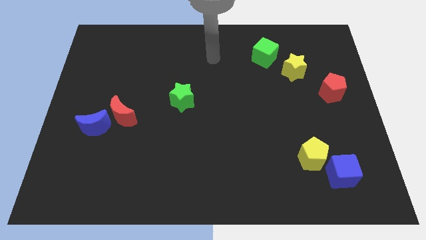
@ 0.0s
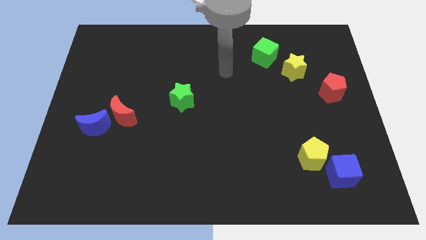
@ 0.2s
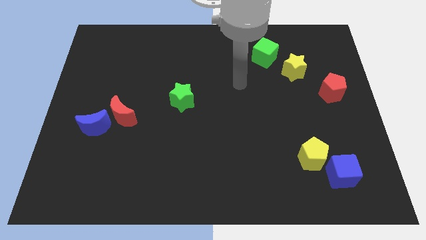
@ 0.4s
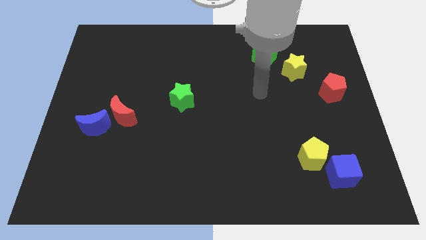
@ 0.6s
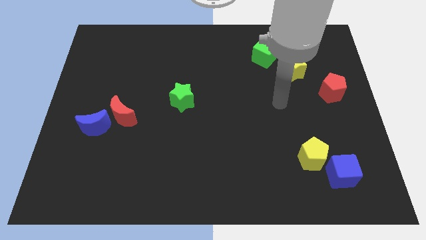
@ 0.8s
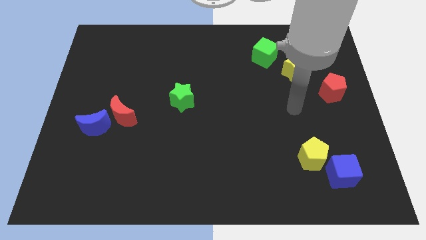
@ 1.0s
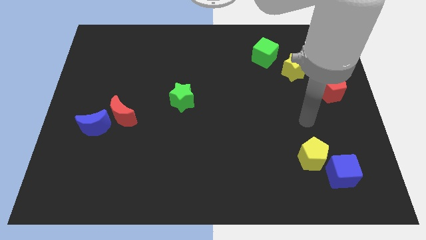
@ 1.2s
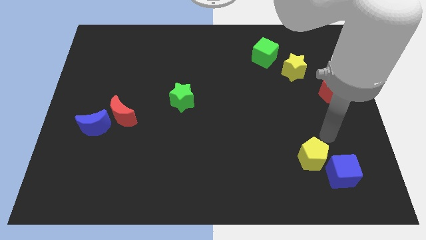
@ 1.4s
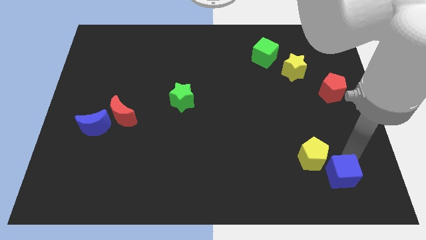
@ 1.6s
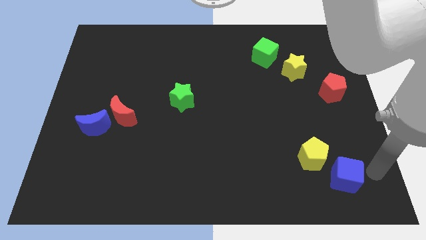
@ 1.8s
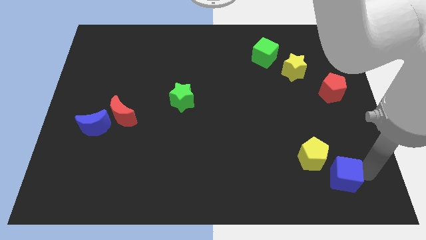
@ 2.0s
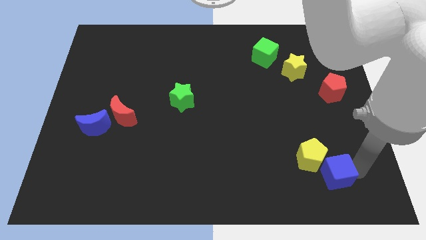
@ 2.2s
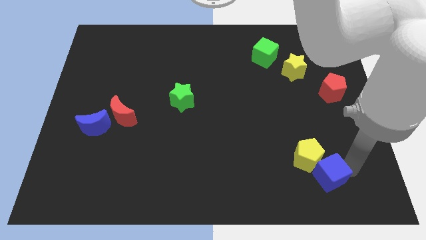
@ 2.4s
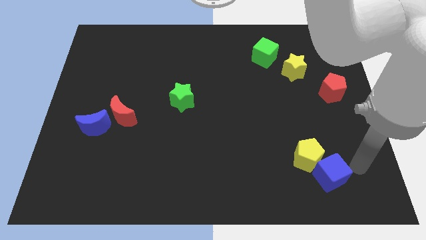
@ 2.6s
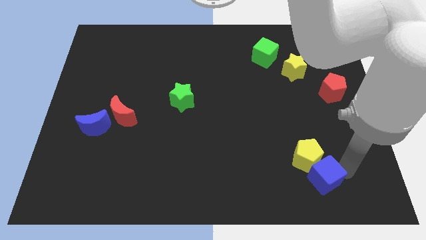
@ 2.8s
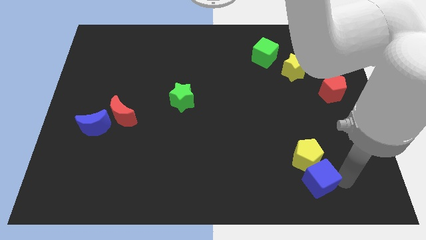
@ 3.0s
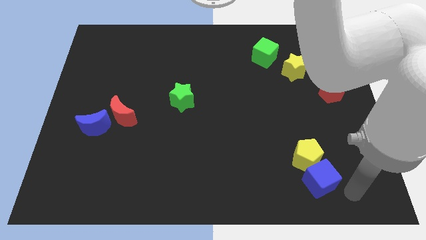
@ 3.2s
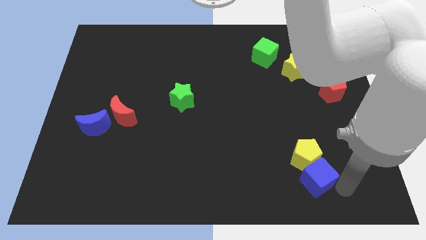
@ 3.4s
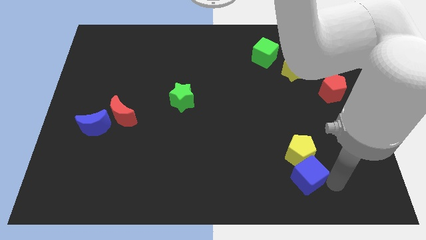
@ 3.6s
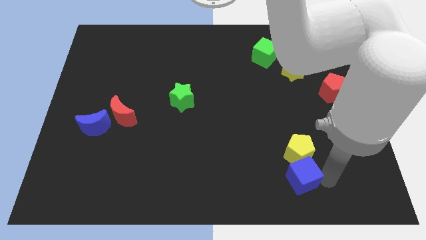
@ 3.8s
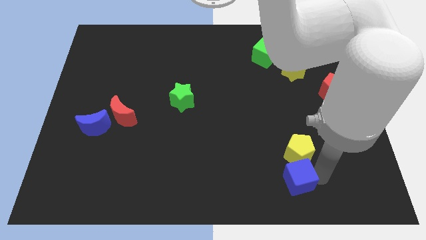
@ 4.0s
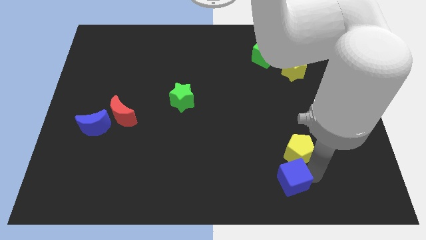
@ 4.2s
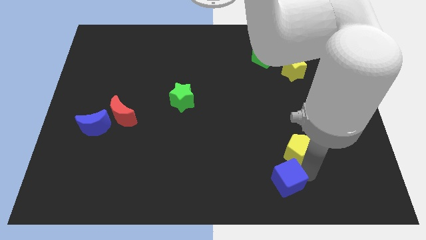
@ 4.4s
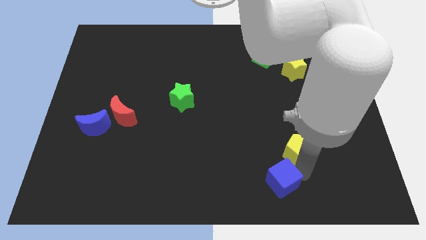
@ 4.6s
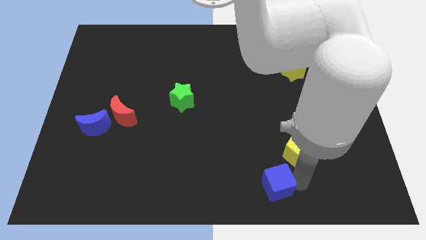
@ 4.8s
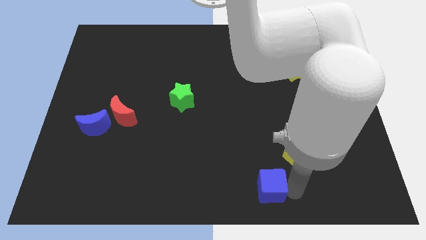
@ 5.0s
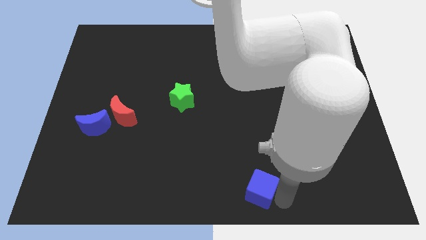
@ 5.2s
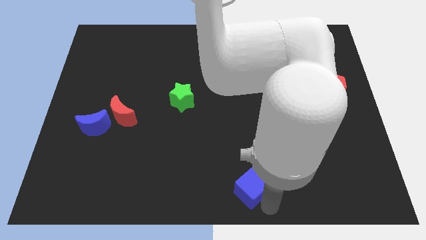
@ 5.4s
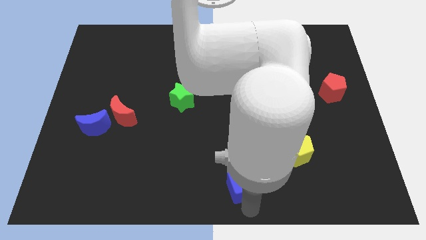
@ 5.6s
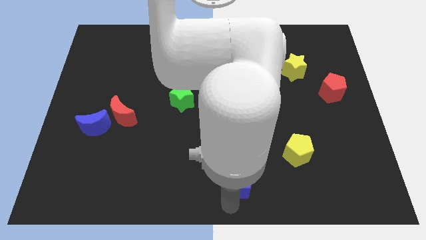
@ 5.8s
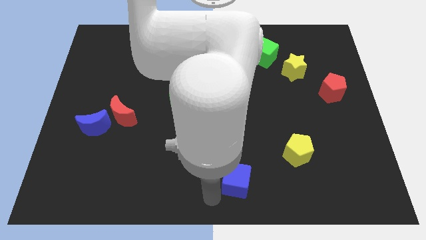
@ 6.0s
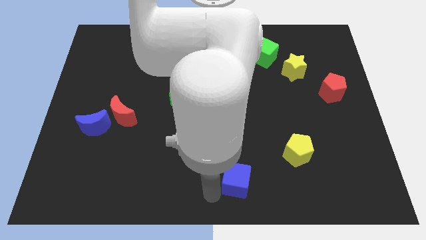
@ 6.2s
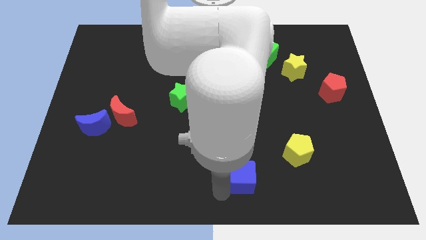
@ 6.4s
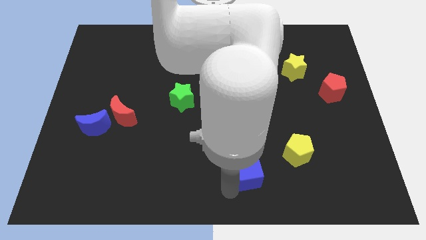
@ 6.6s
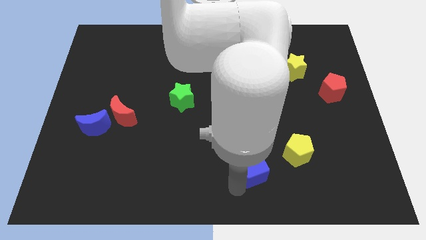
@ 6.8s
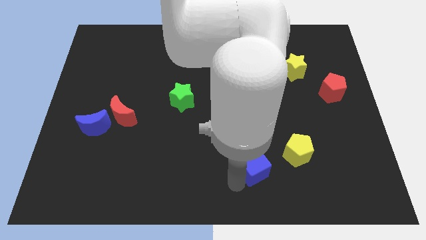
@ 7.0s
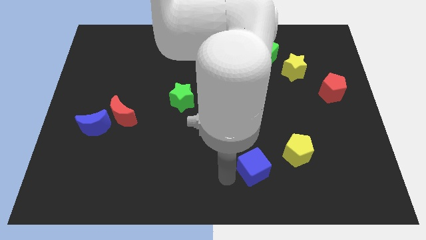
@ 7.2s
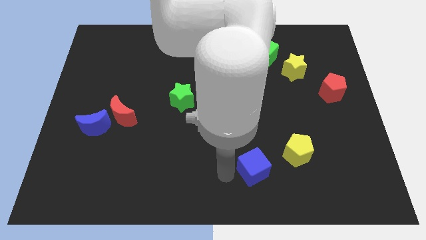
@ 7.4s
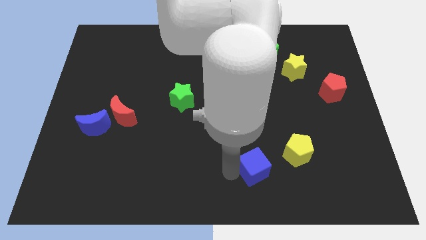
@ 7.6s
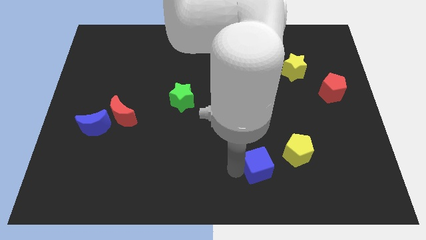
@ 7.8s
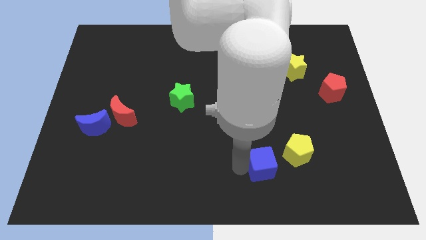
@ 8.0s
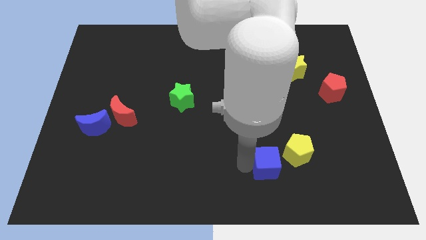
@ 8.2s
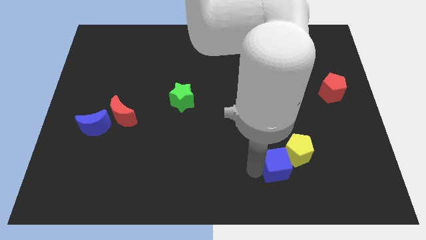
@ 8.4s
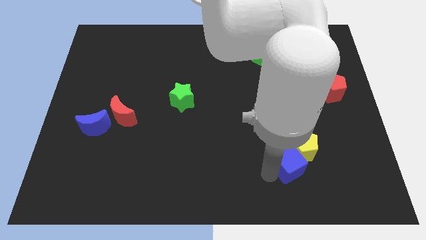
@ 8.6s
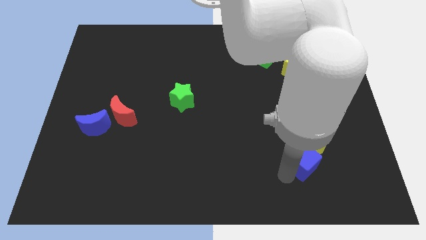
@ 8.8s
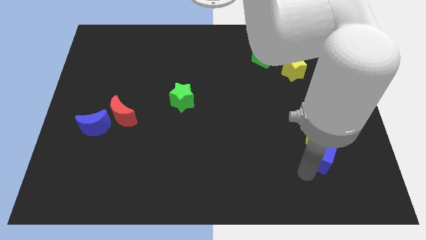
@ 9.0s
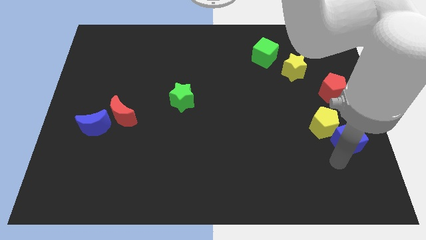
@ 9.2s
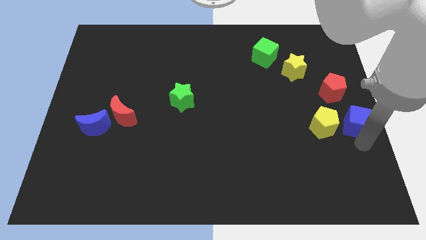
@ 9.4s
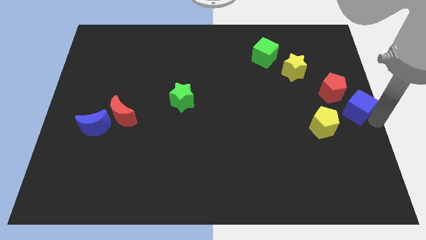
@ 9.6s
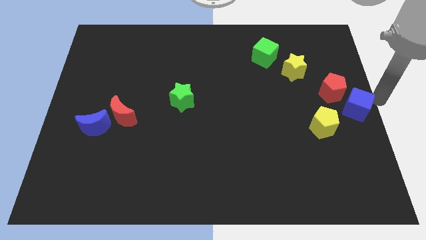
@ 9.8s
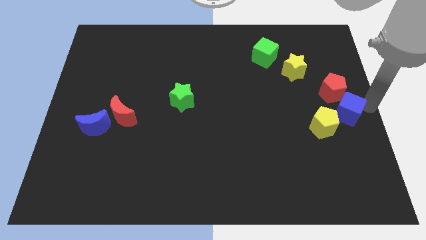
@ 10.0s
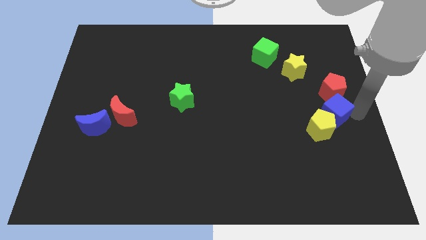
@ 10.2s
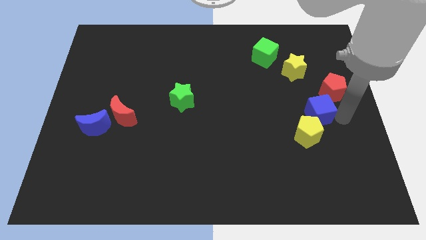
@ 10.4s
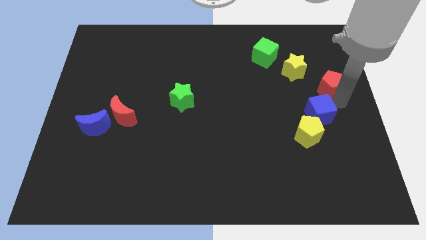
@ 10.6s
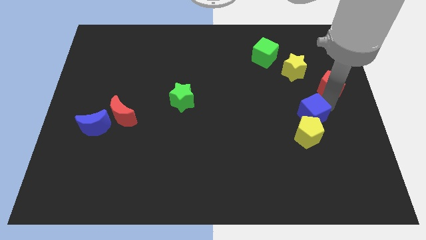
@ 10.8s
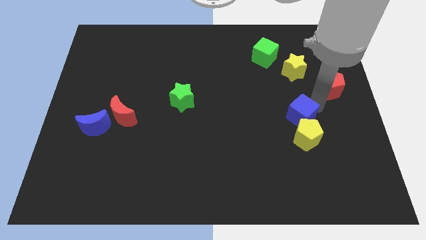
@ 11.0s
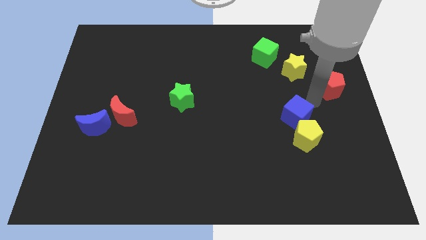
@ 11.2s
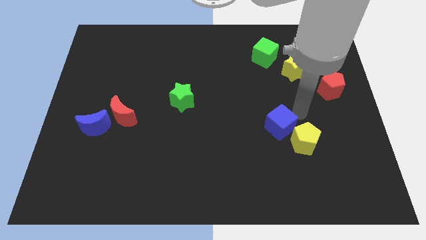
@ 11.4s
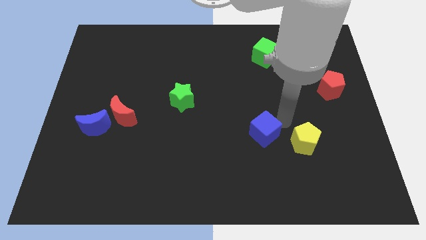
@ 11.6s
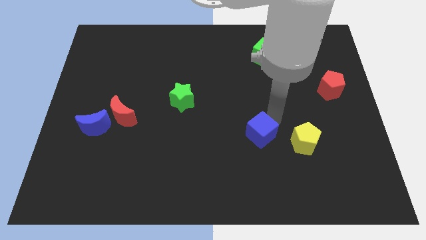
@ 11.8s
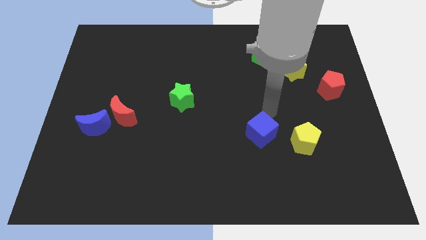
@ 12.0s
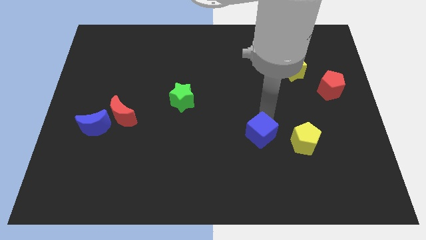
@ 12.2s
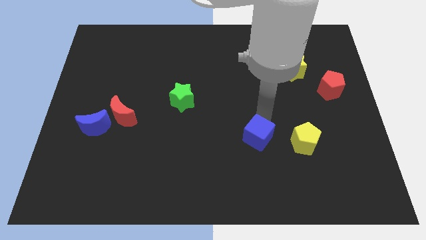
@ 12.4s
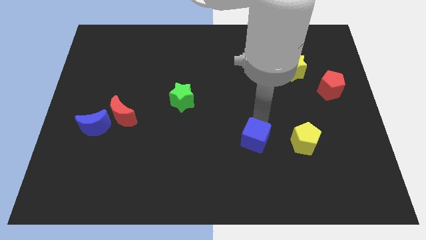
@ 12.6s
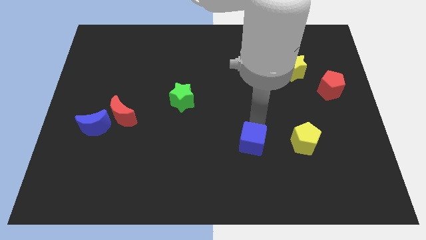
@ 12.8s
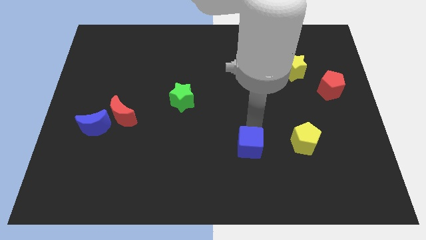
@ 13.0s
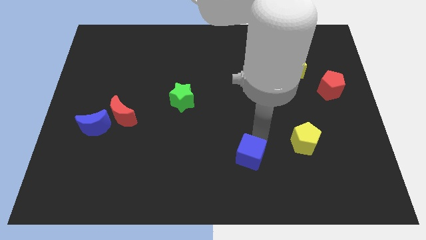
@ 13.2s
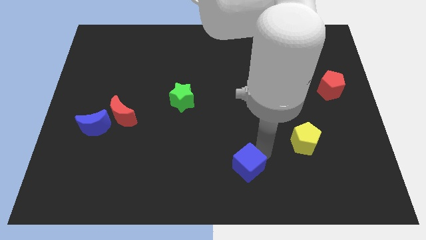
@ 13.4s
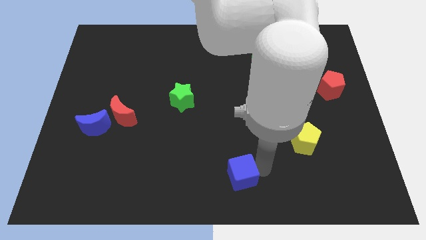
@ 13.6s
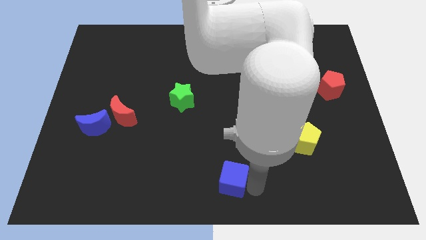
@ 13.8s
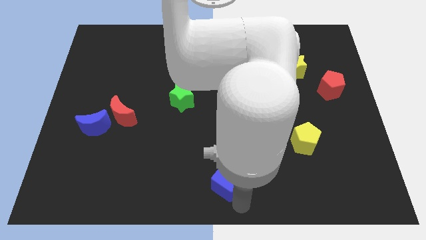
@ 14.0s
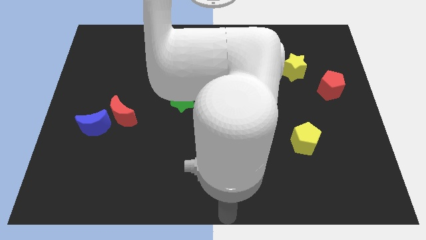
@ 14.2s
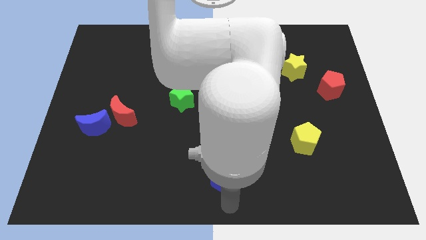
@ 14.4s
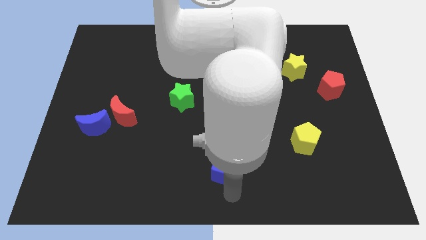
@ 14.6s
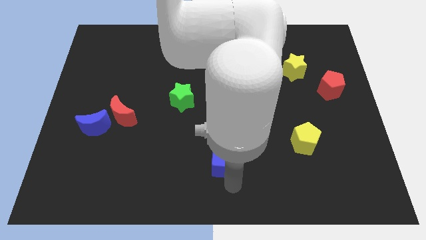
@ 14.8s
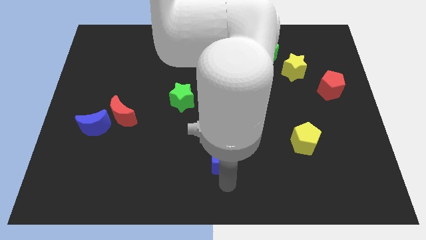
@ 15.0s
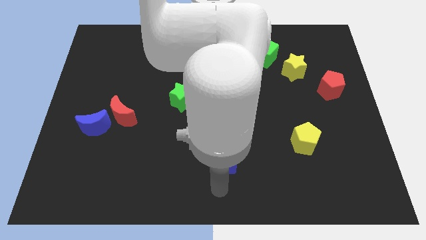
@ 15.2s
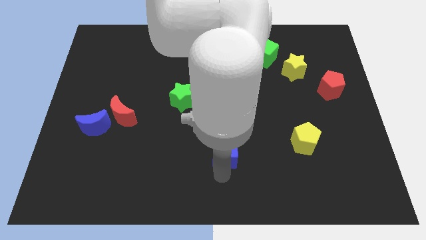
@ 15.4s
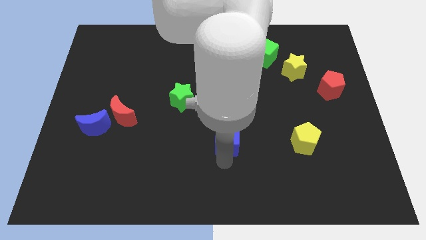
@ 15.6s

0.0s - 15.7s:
put the blue cube to the middle
